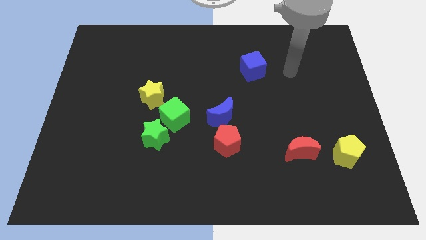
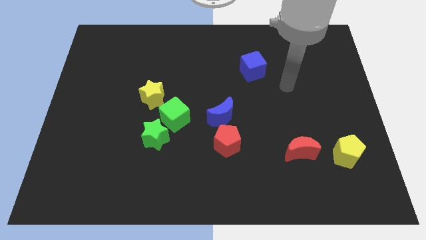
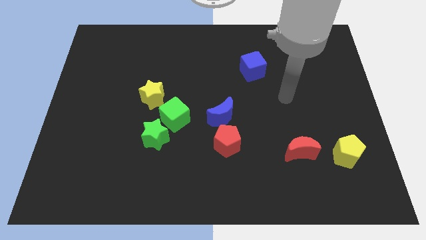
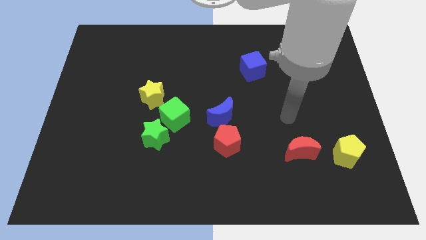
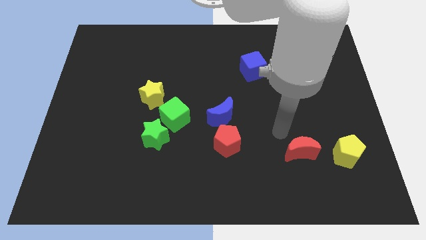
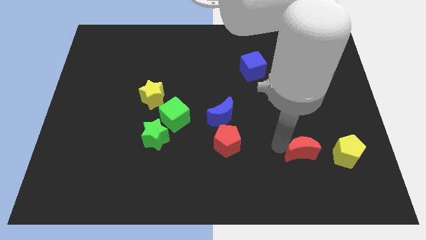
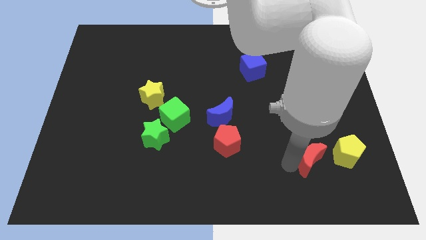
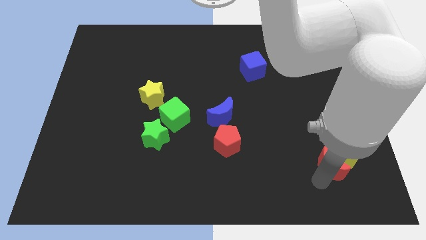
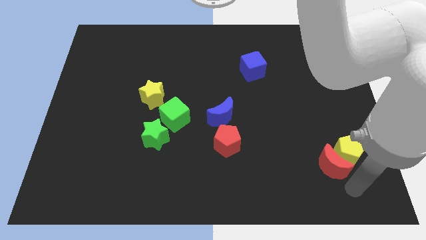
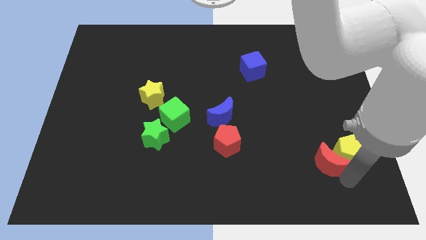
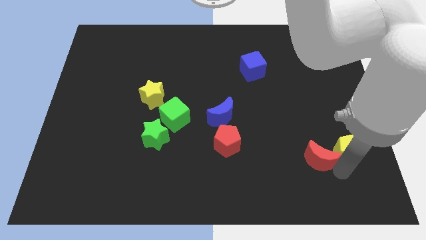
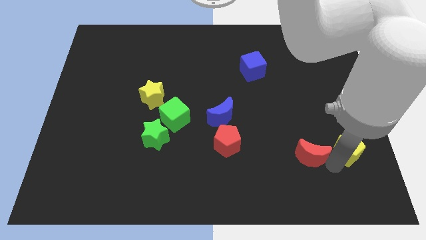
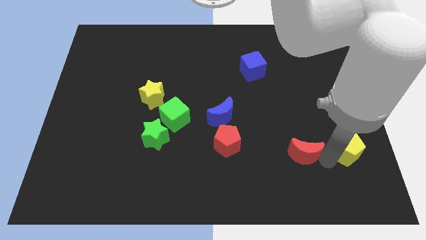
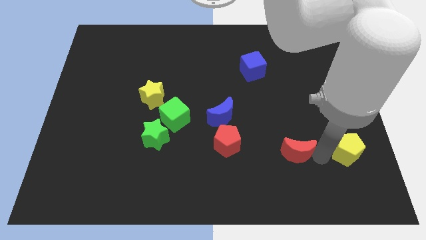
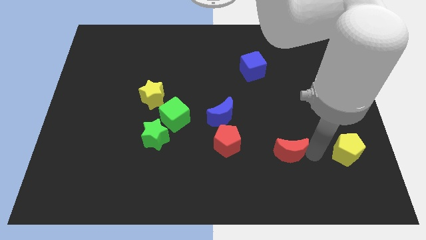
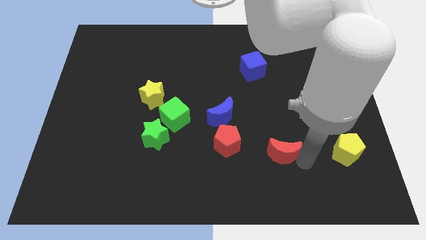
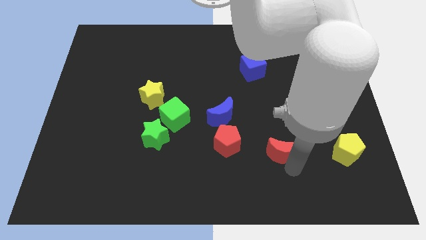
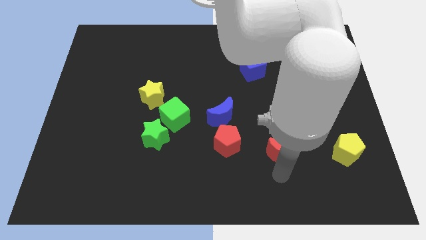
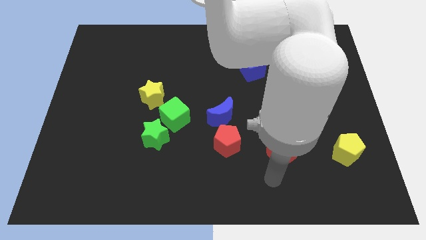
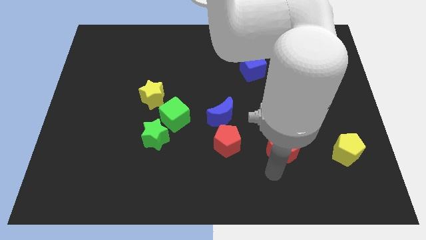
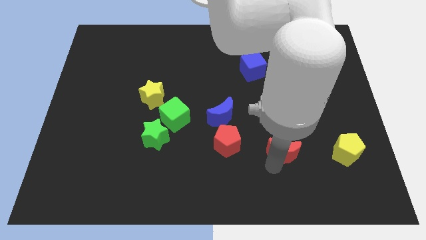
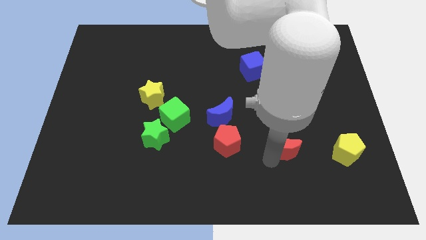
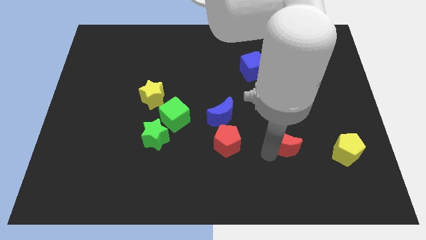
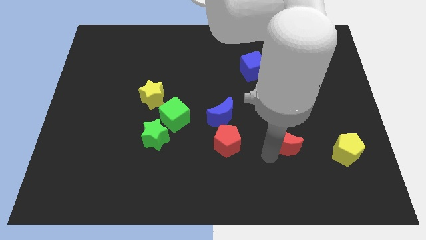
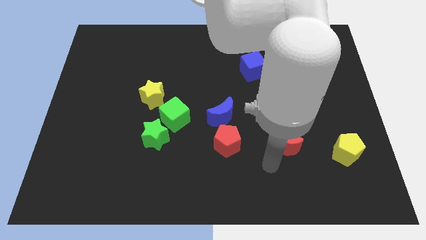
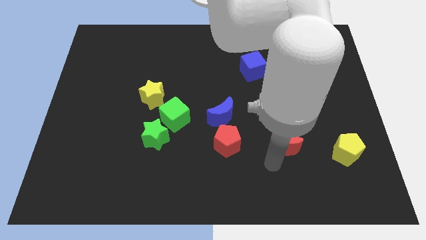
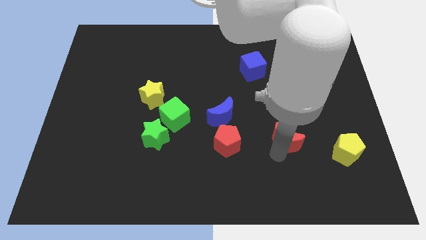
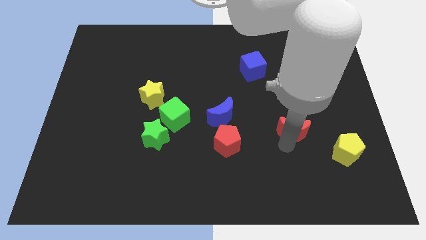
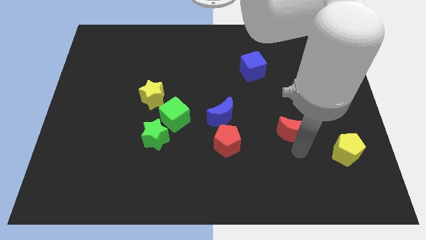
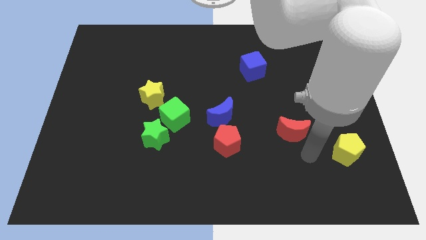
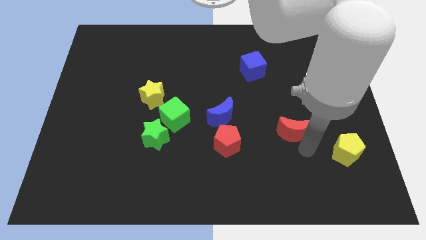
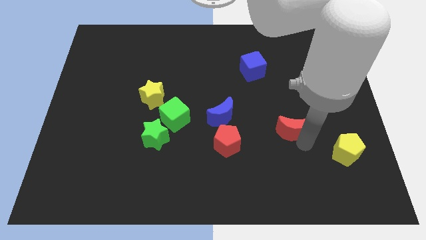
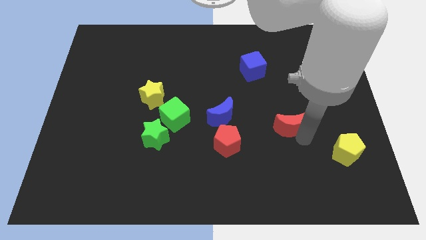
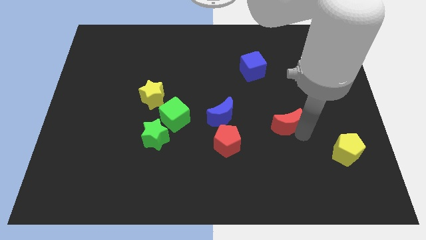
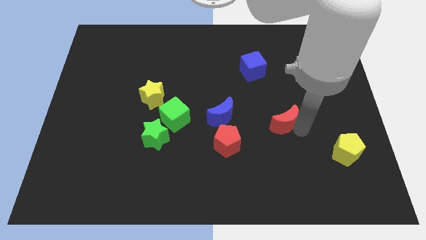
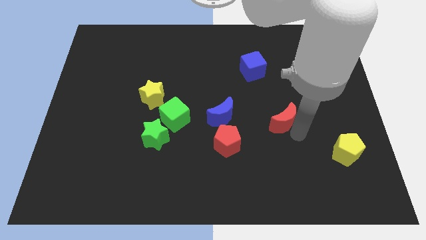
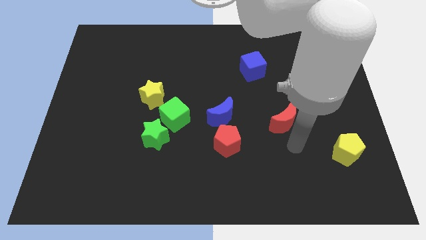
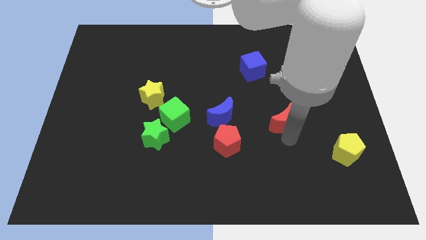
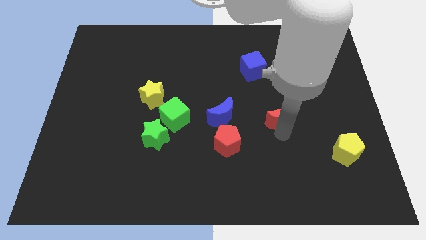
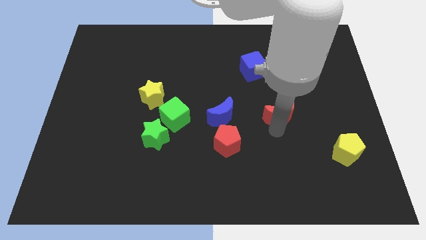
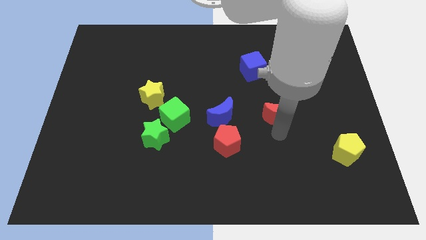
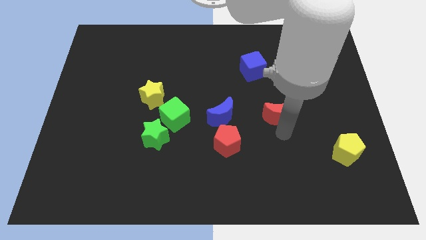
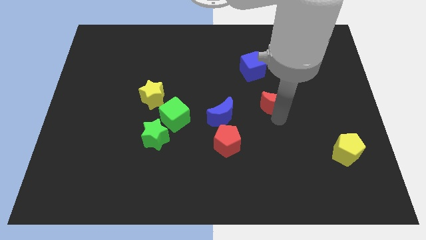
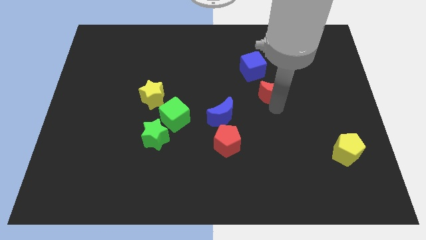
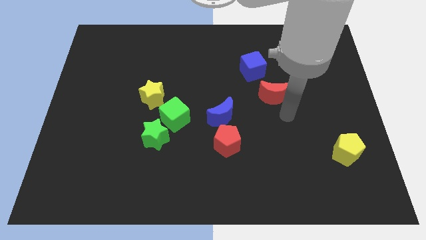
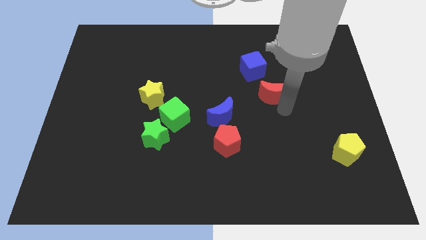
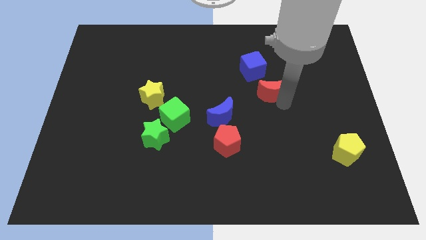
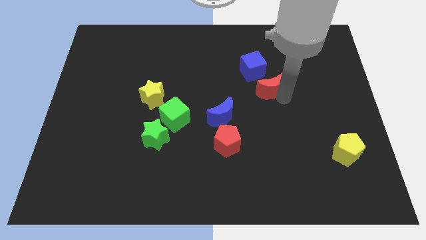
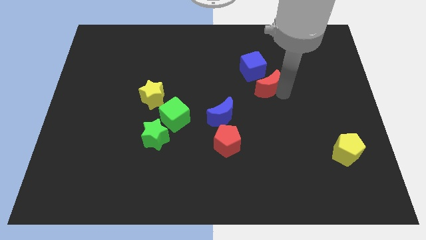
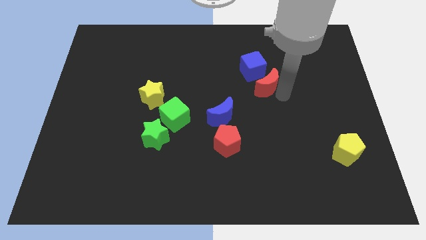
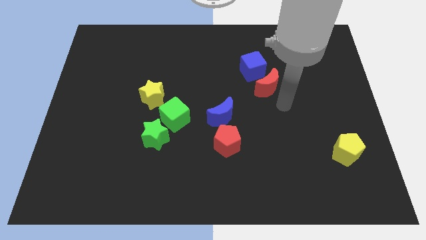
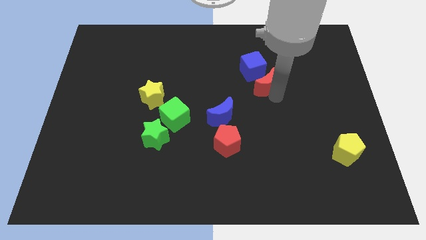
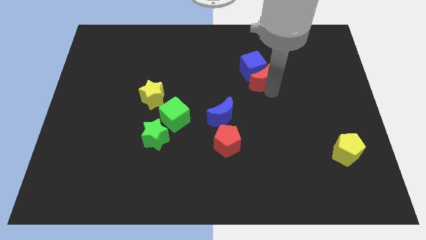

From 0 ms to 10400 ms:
push the red moon towards the blue cube
